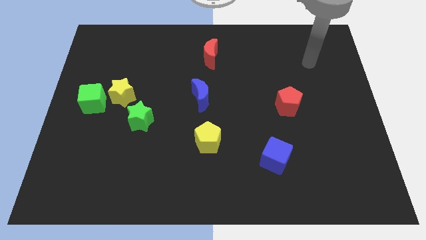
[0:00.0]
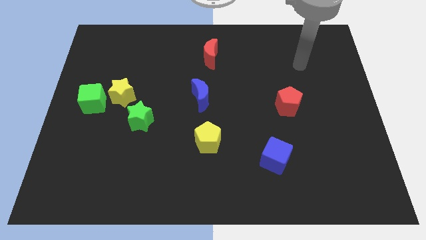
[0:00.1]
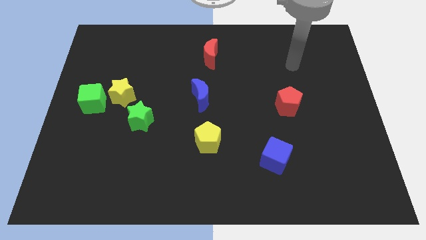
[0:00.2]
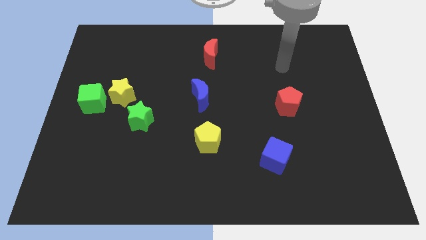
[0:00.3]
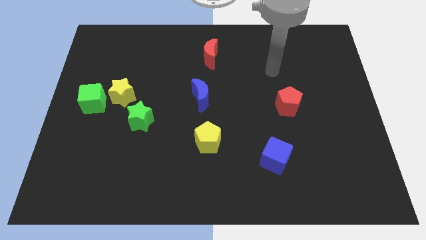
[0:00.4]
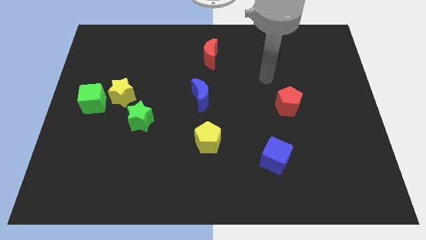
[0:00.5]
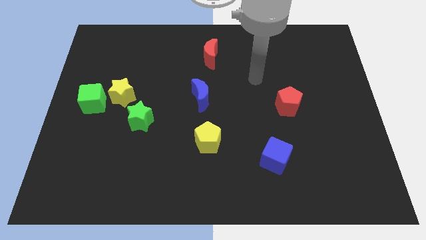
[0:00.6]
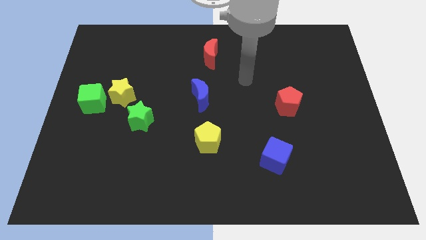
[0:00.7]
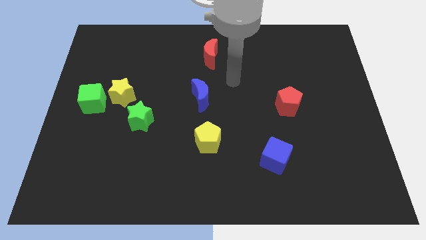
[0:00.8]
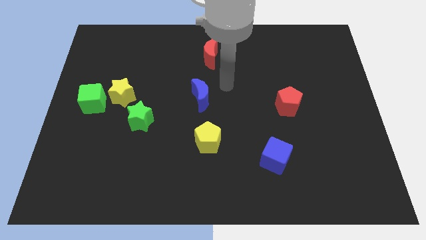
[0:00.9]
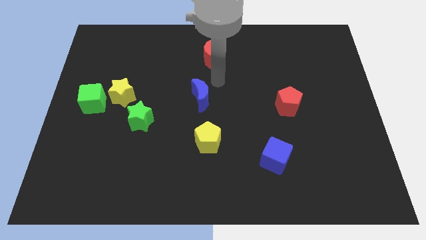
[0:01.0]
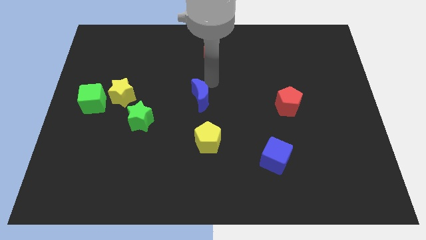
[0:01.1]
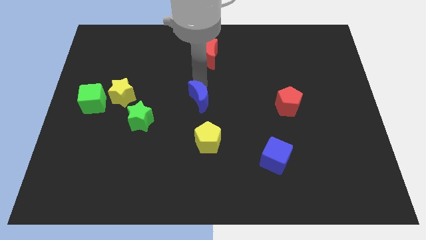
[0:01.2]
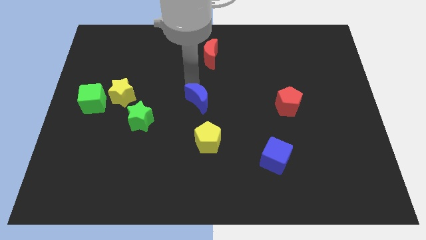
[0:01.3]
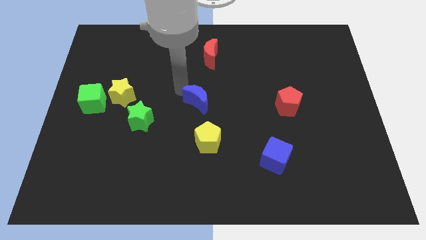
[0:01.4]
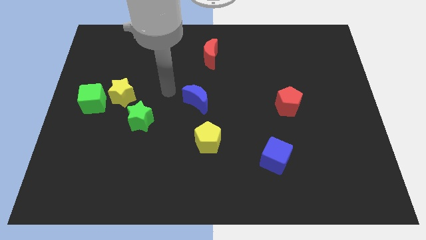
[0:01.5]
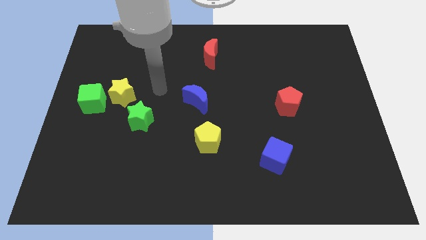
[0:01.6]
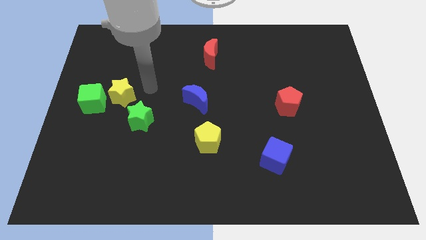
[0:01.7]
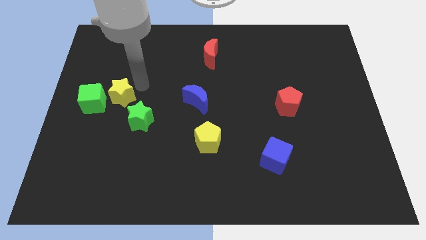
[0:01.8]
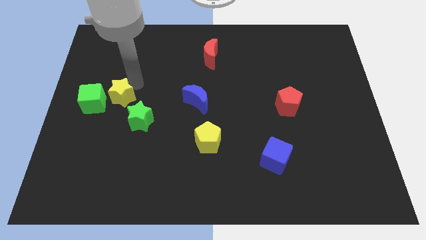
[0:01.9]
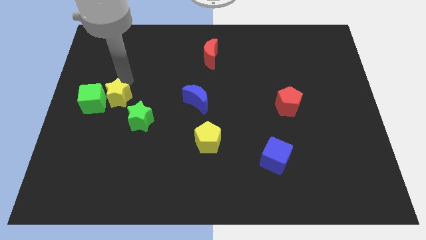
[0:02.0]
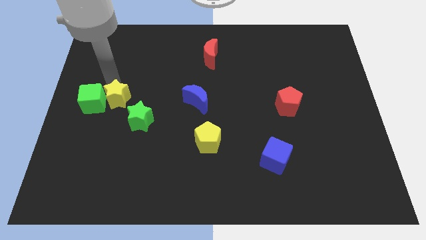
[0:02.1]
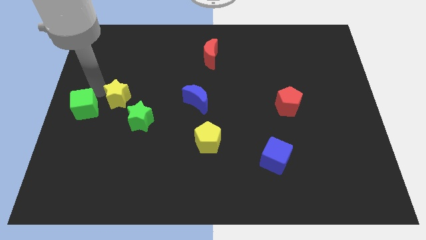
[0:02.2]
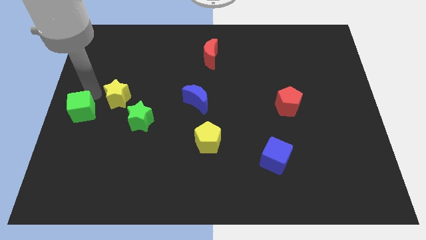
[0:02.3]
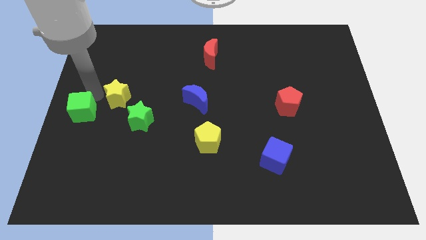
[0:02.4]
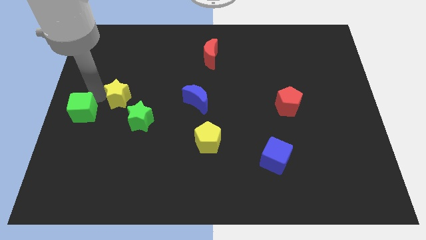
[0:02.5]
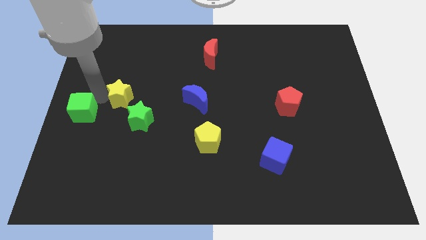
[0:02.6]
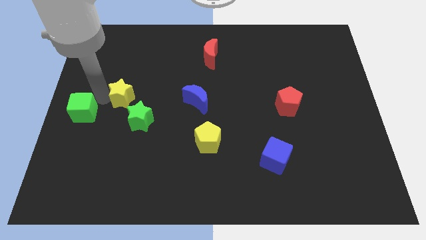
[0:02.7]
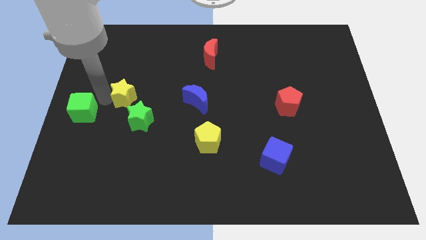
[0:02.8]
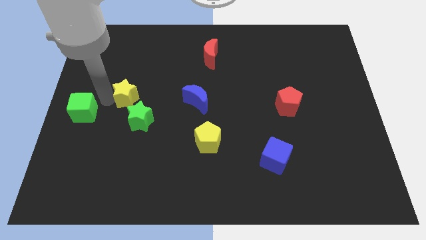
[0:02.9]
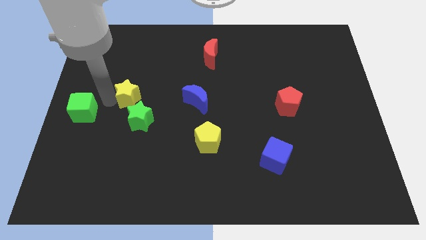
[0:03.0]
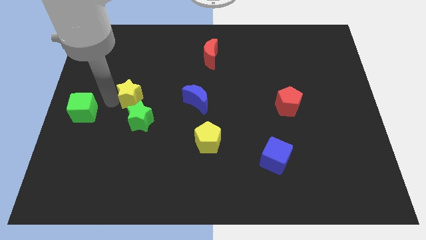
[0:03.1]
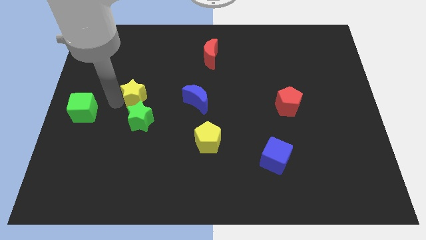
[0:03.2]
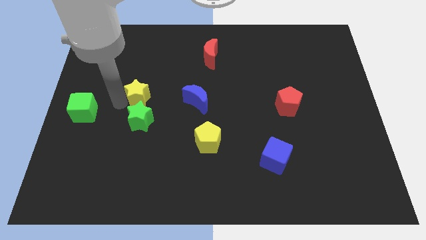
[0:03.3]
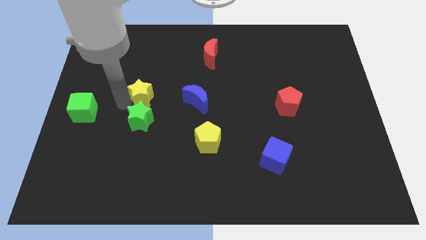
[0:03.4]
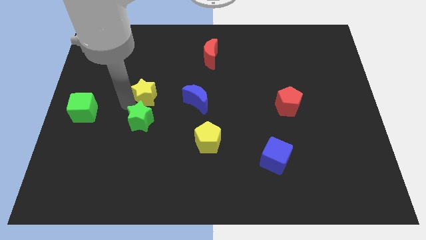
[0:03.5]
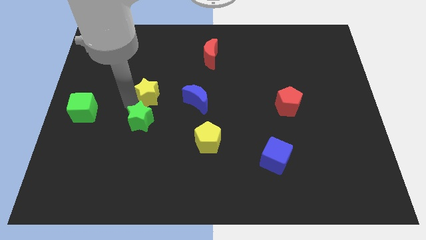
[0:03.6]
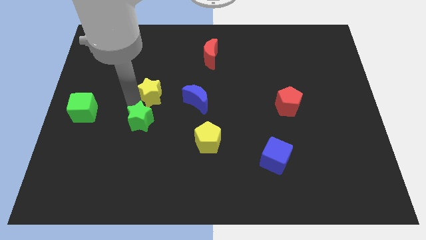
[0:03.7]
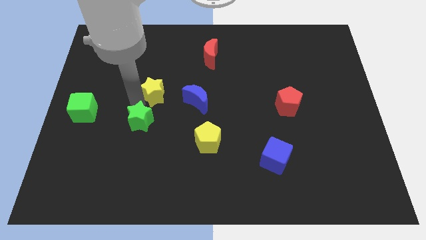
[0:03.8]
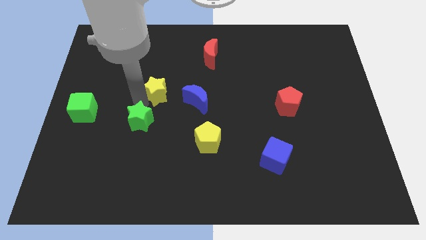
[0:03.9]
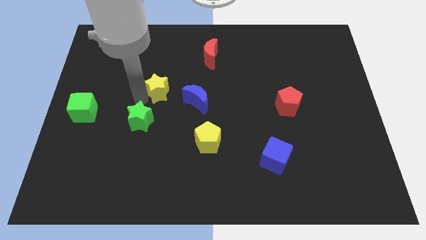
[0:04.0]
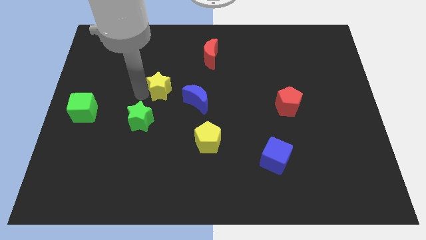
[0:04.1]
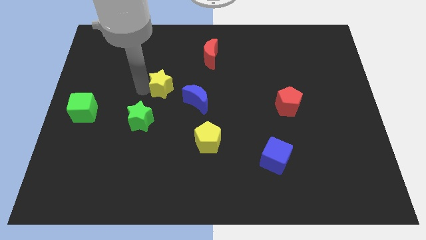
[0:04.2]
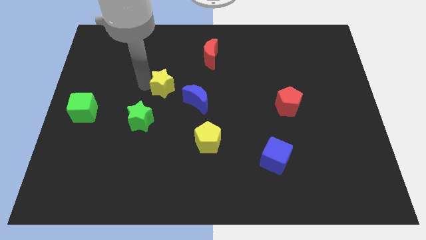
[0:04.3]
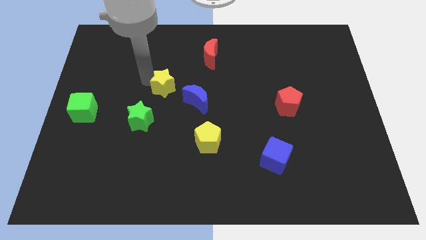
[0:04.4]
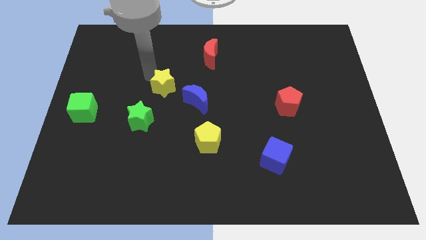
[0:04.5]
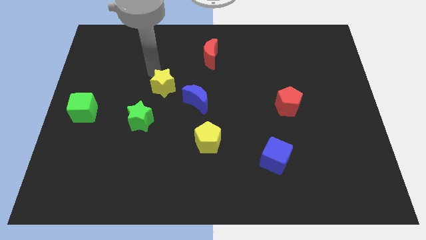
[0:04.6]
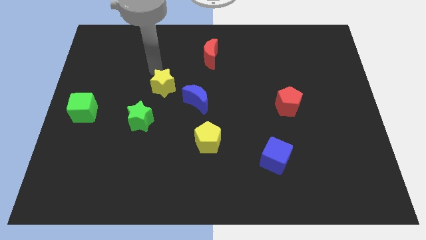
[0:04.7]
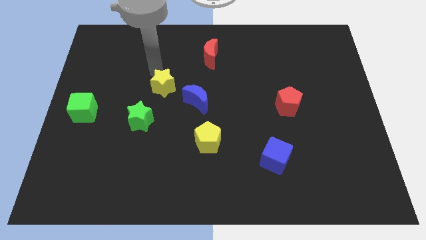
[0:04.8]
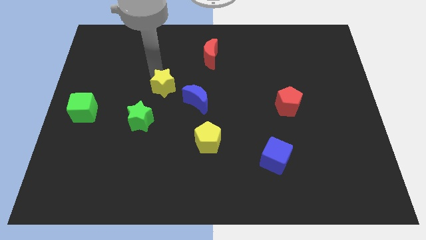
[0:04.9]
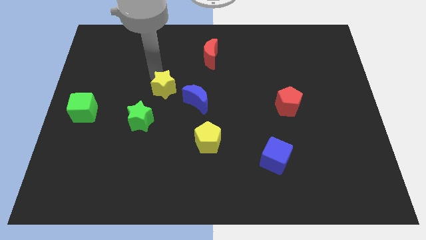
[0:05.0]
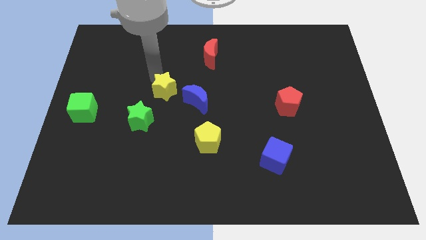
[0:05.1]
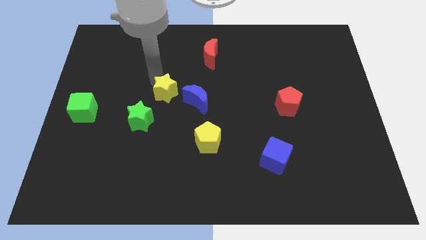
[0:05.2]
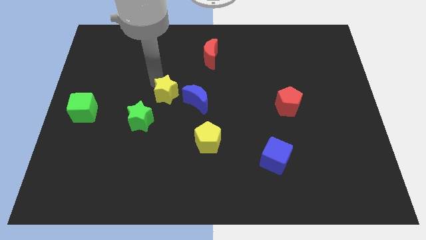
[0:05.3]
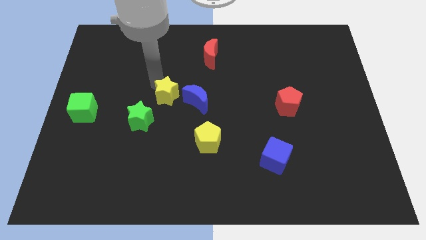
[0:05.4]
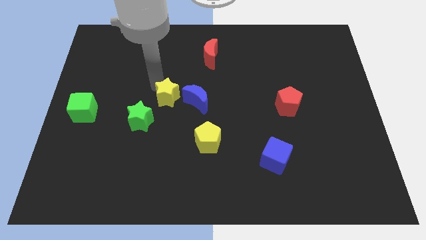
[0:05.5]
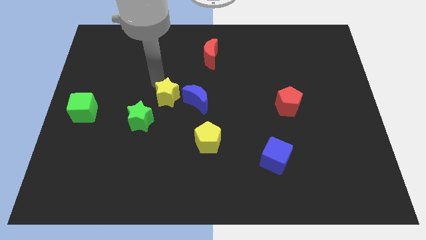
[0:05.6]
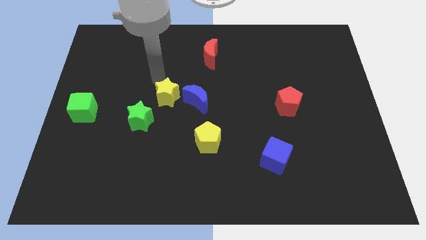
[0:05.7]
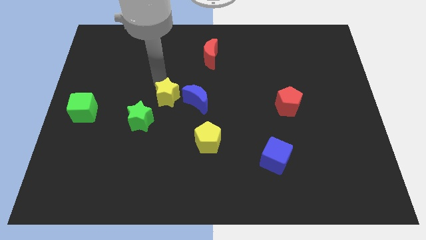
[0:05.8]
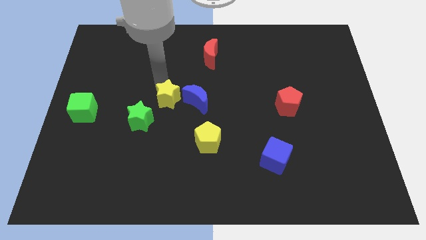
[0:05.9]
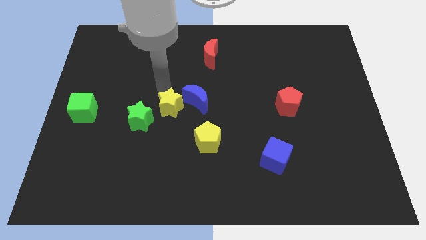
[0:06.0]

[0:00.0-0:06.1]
move the yellow star diagonally up and to the left of the yellow pentagon

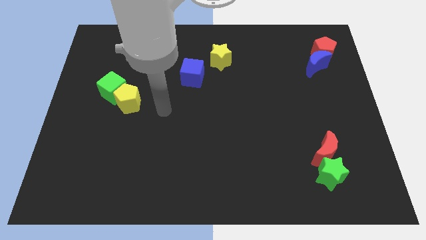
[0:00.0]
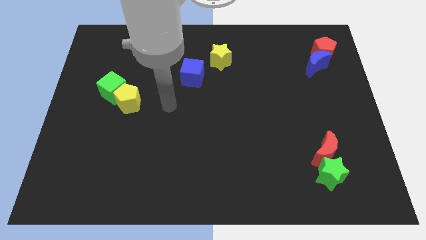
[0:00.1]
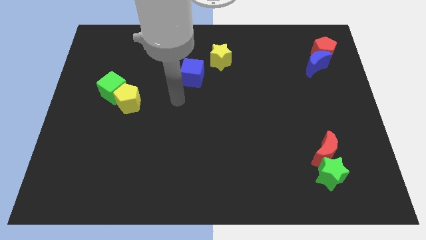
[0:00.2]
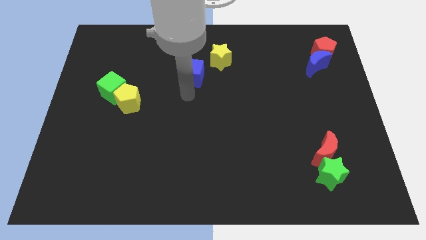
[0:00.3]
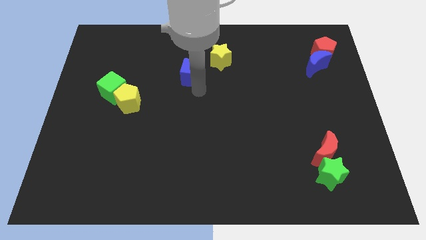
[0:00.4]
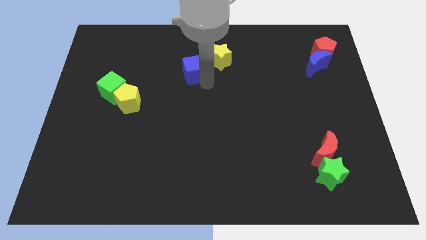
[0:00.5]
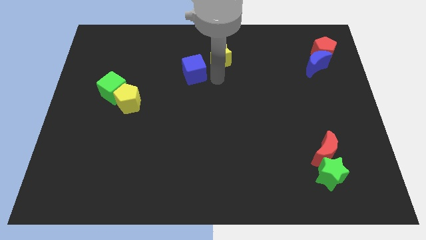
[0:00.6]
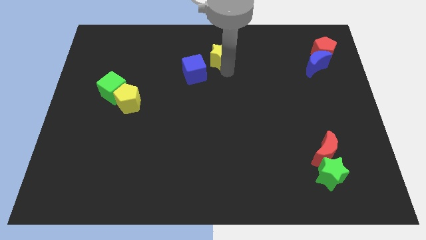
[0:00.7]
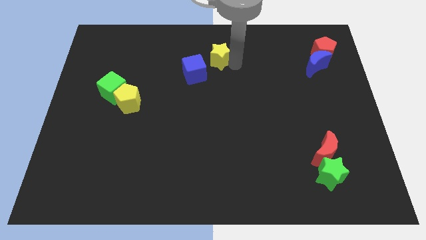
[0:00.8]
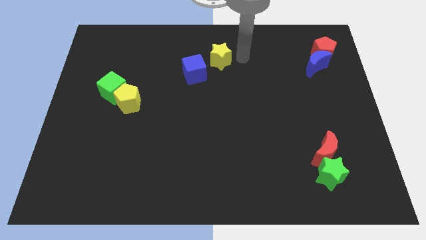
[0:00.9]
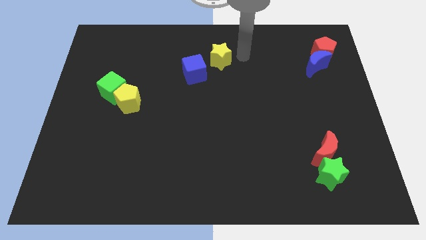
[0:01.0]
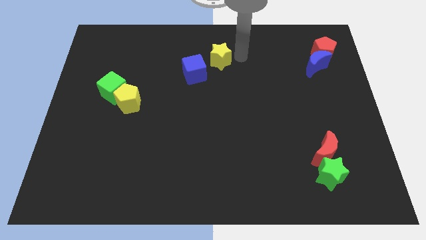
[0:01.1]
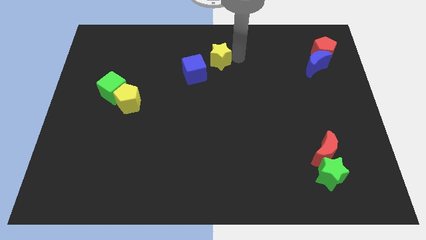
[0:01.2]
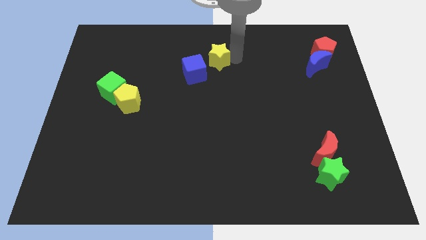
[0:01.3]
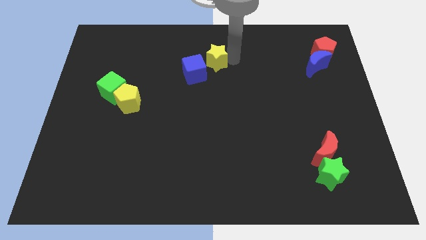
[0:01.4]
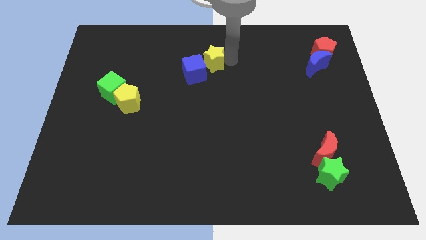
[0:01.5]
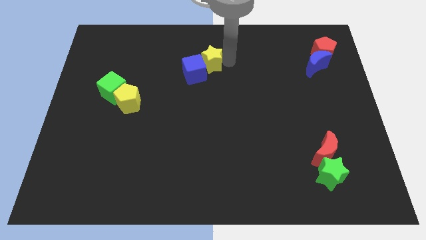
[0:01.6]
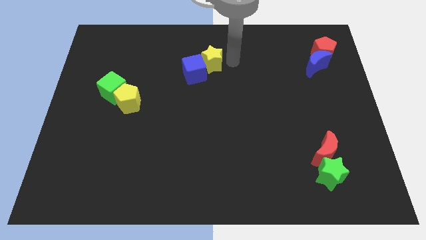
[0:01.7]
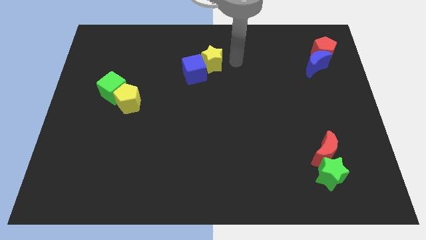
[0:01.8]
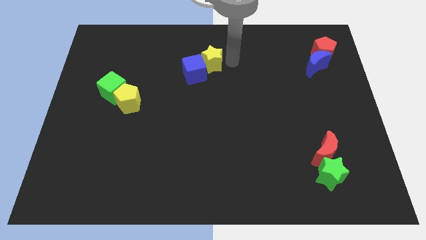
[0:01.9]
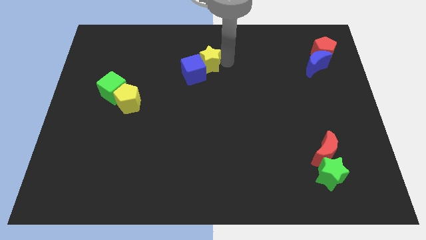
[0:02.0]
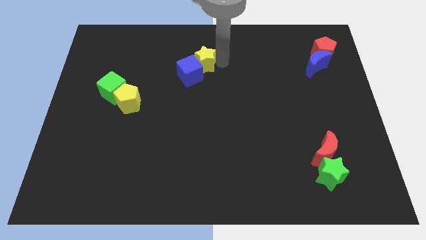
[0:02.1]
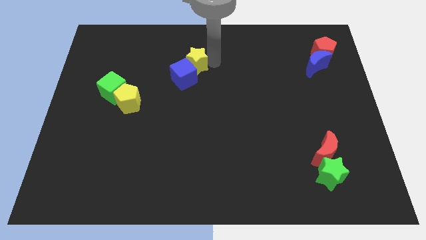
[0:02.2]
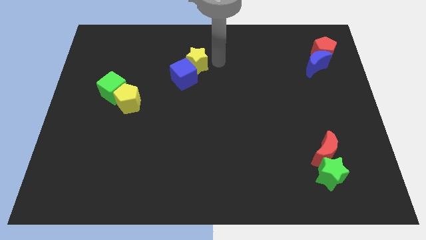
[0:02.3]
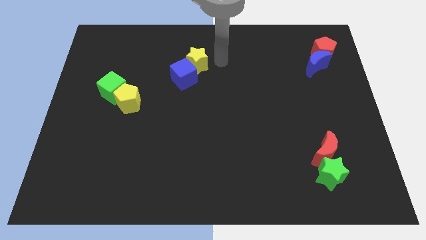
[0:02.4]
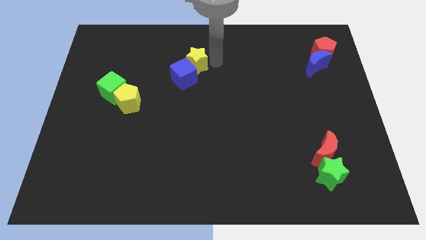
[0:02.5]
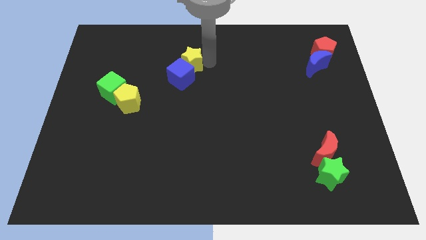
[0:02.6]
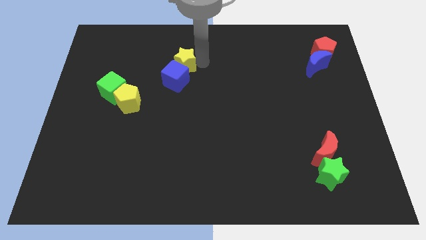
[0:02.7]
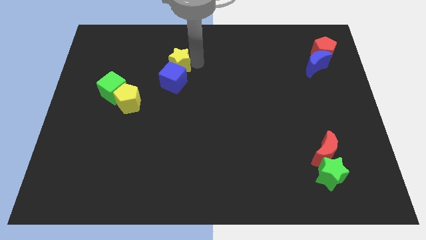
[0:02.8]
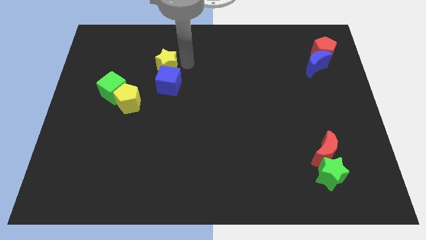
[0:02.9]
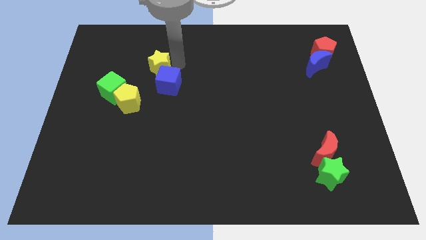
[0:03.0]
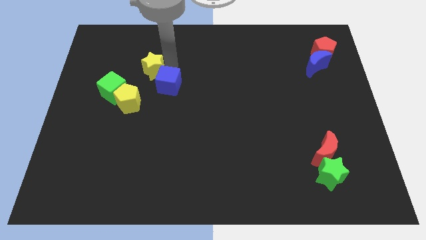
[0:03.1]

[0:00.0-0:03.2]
slide the yellow star above the yellow pentagon
